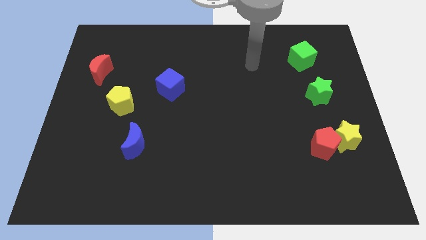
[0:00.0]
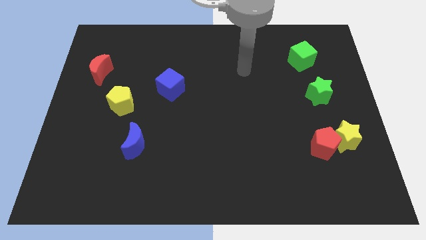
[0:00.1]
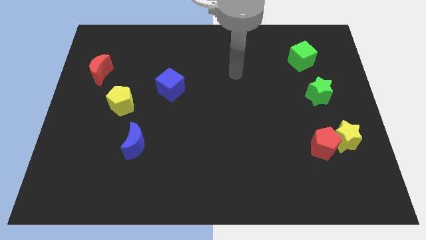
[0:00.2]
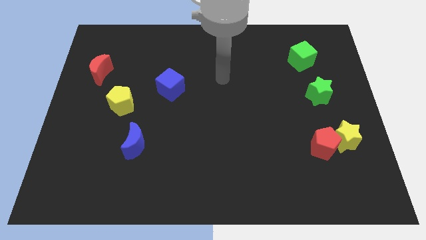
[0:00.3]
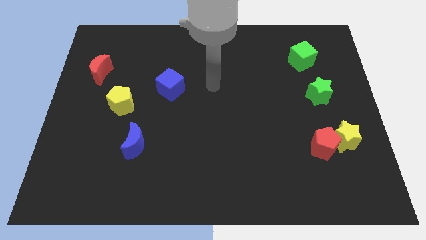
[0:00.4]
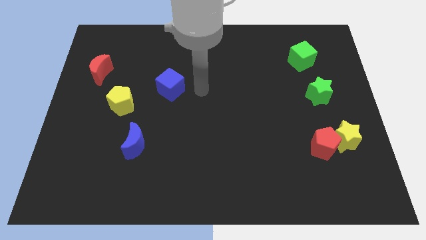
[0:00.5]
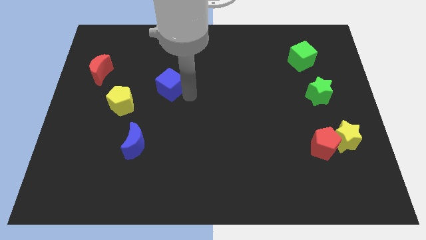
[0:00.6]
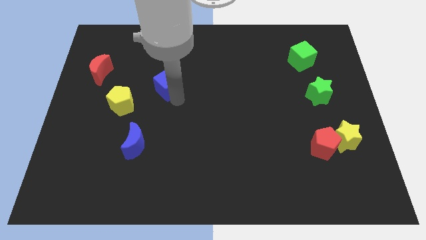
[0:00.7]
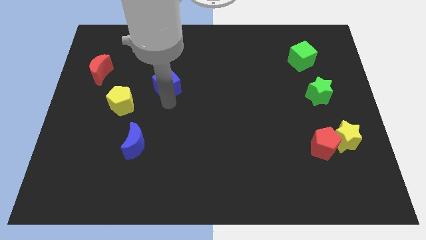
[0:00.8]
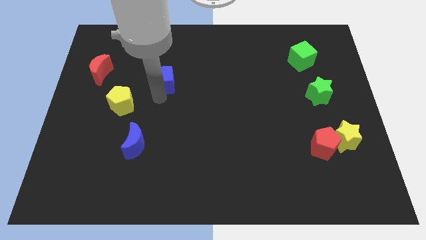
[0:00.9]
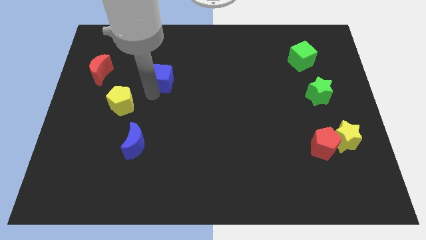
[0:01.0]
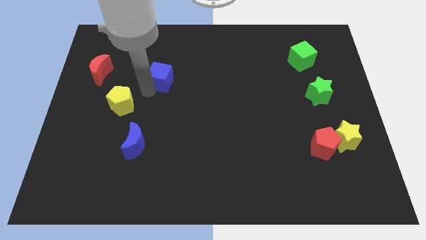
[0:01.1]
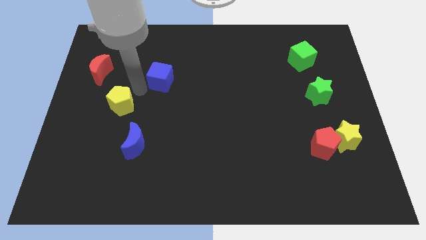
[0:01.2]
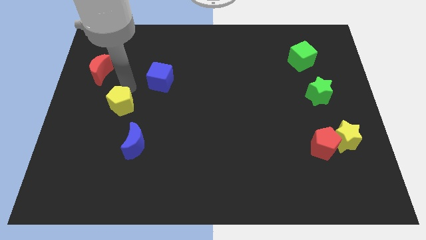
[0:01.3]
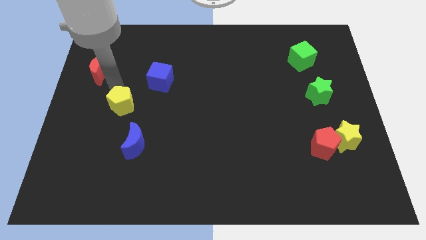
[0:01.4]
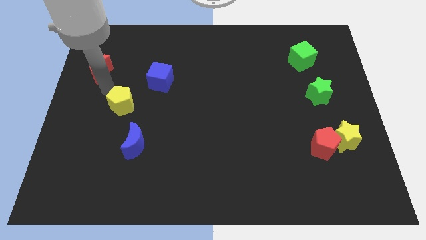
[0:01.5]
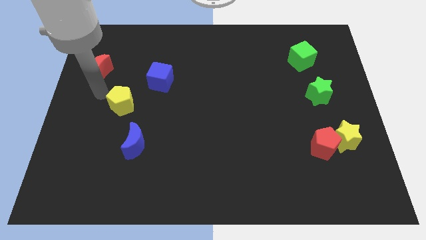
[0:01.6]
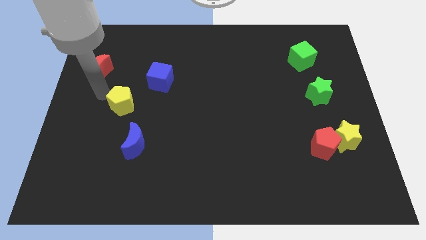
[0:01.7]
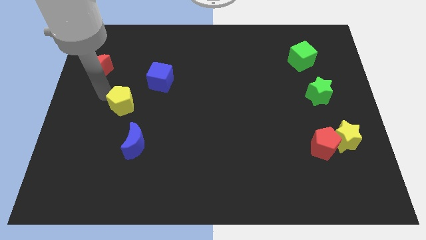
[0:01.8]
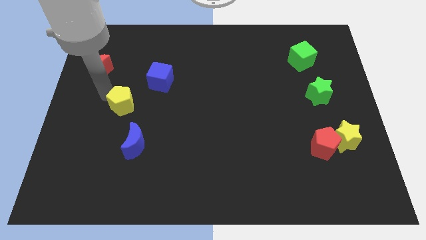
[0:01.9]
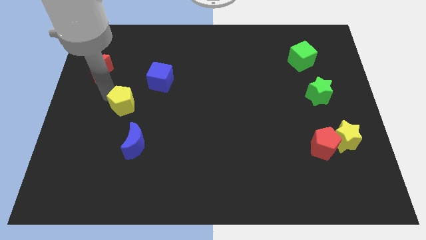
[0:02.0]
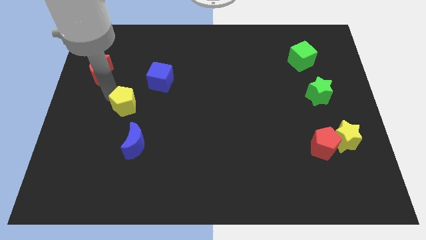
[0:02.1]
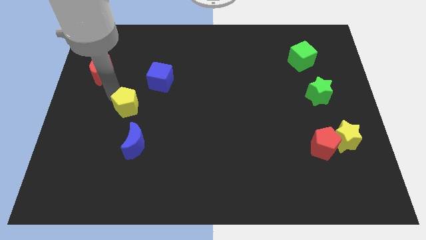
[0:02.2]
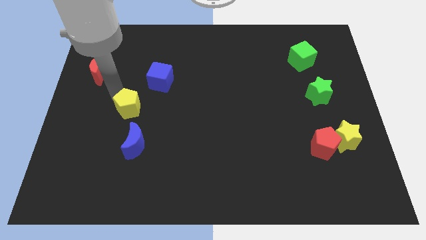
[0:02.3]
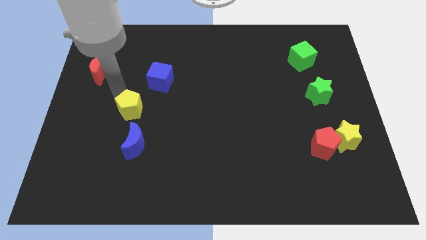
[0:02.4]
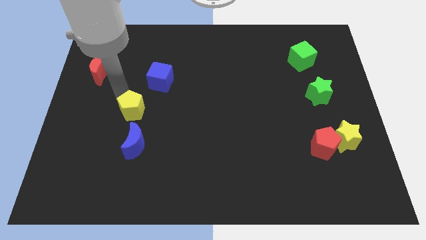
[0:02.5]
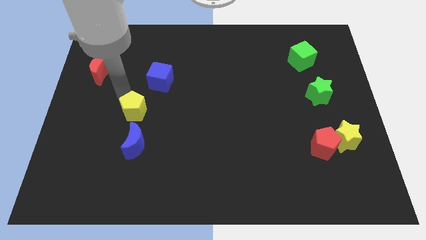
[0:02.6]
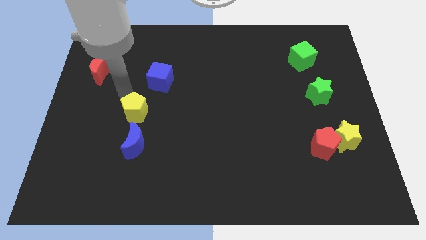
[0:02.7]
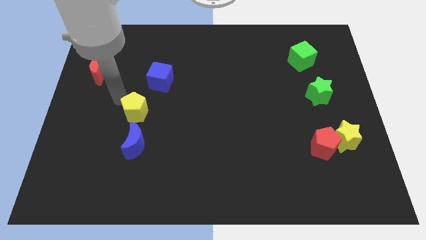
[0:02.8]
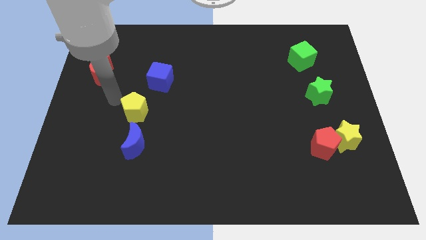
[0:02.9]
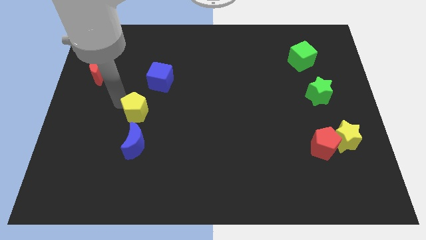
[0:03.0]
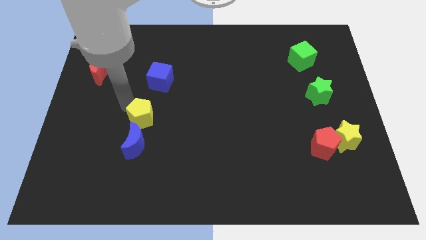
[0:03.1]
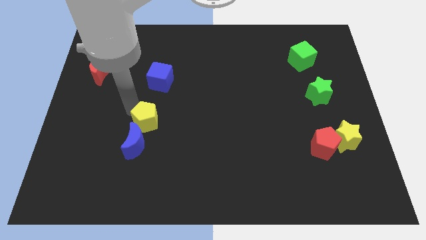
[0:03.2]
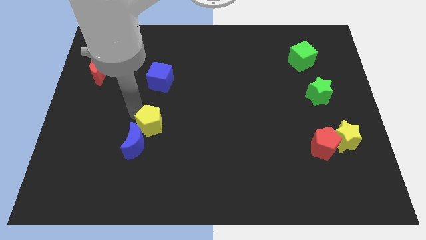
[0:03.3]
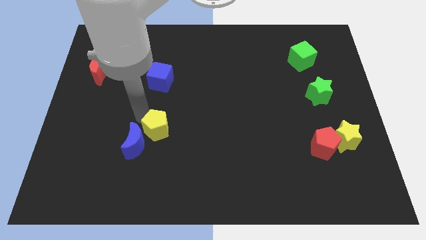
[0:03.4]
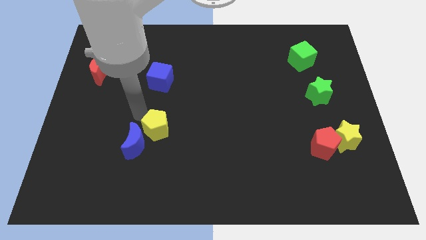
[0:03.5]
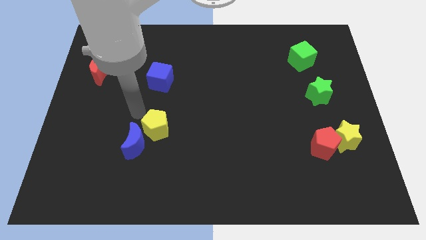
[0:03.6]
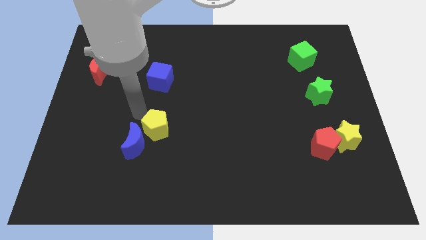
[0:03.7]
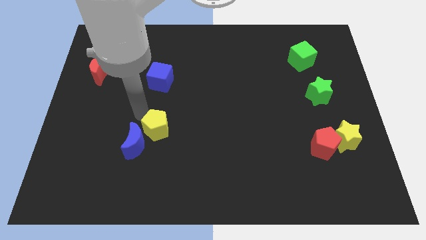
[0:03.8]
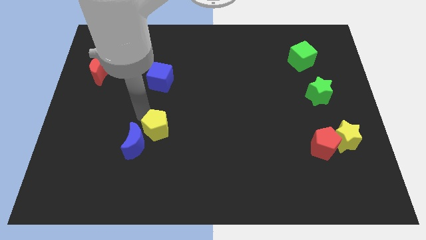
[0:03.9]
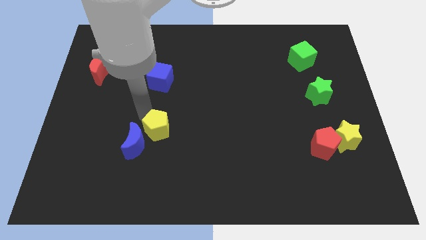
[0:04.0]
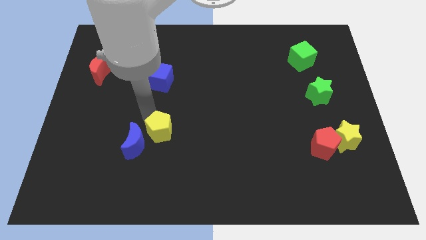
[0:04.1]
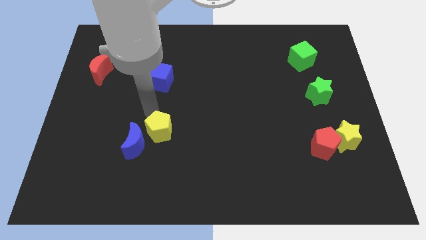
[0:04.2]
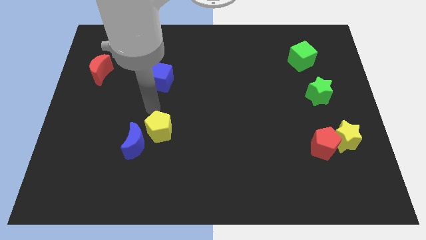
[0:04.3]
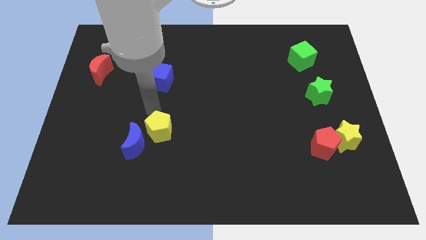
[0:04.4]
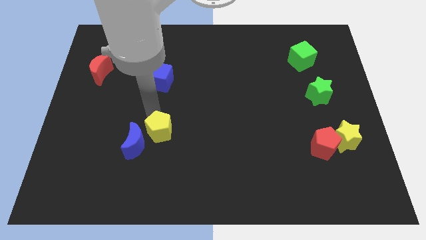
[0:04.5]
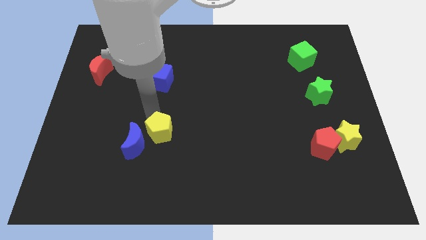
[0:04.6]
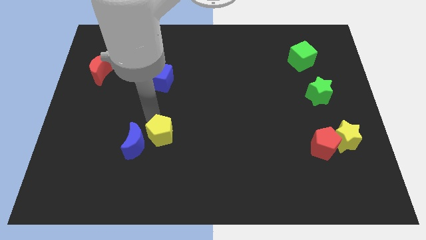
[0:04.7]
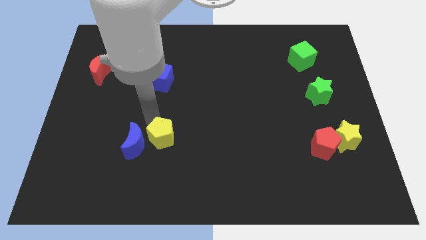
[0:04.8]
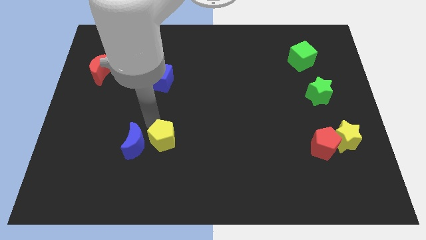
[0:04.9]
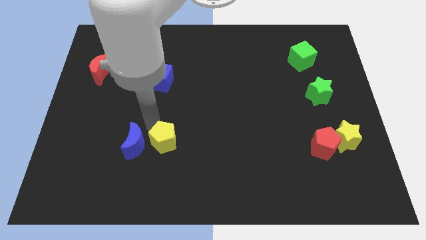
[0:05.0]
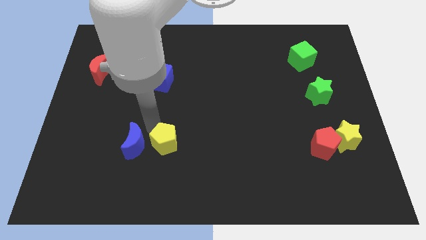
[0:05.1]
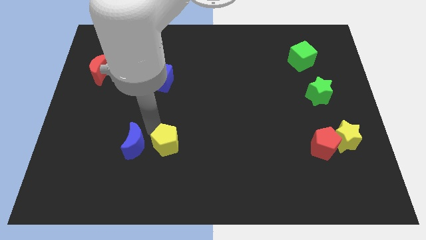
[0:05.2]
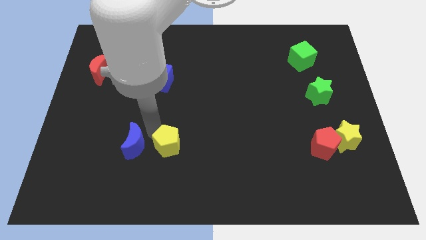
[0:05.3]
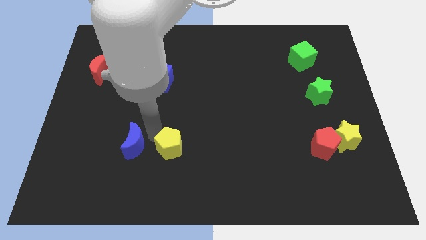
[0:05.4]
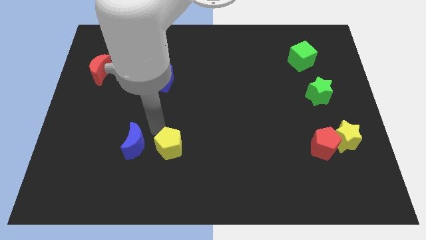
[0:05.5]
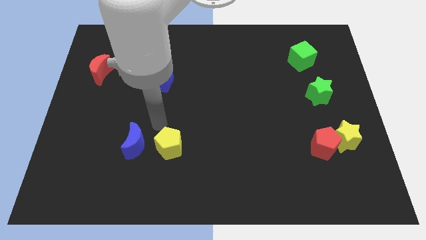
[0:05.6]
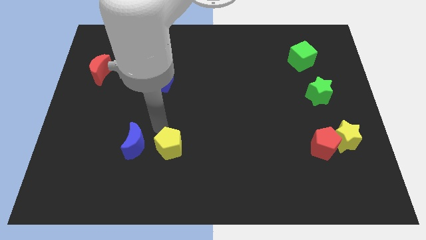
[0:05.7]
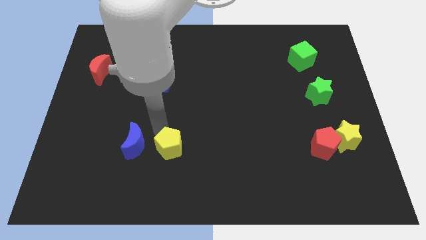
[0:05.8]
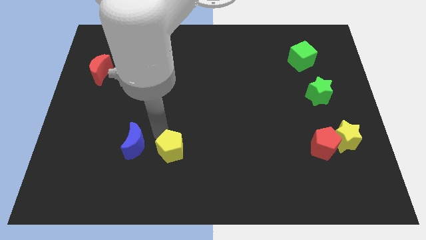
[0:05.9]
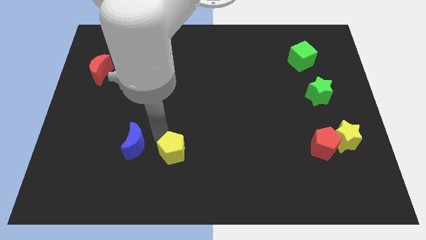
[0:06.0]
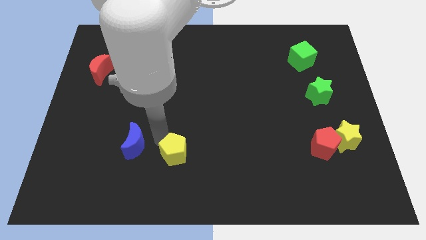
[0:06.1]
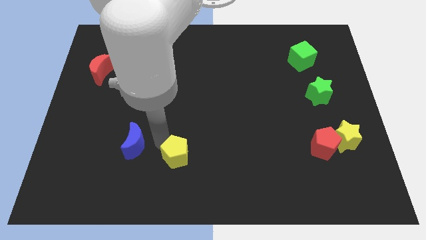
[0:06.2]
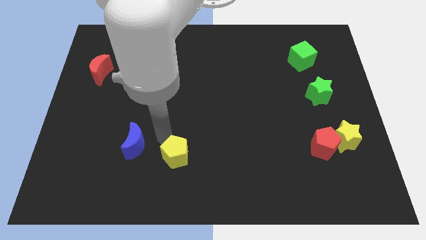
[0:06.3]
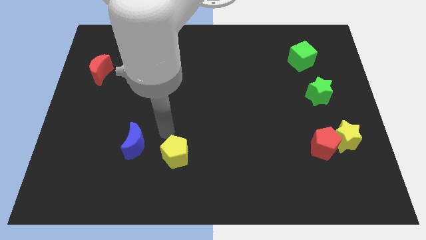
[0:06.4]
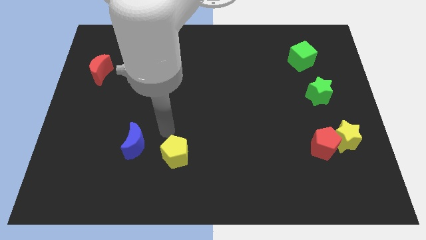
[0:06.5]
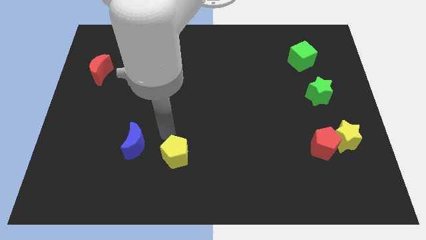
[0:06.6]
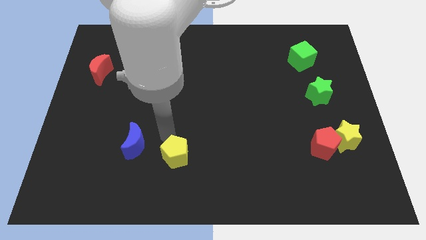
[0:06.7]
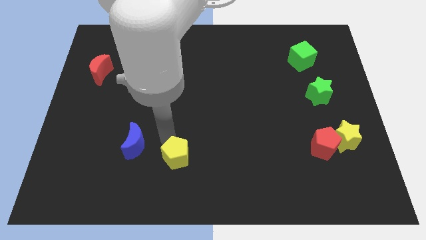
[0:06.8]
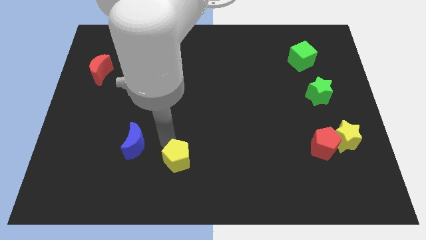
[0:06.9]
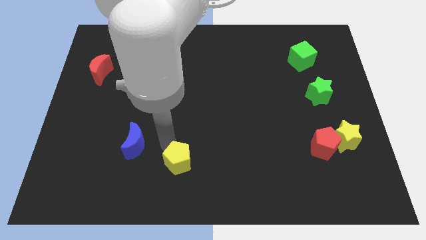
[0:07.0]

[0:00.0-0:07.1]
slide the yellow pentagon to the bottom side
